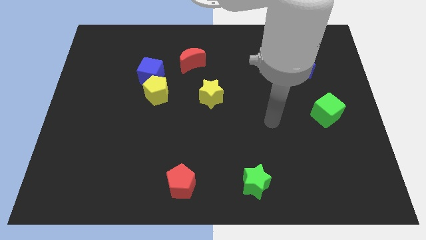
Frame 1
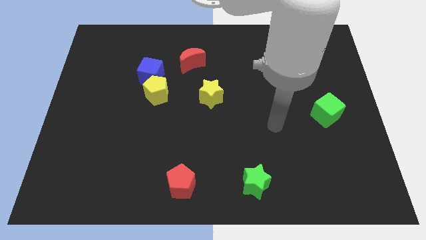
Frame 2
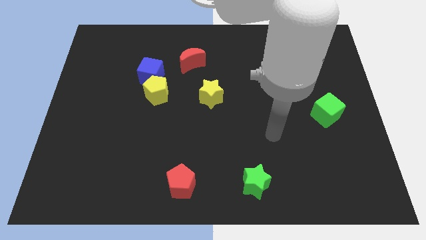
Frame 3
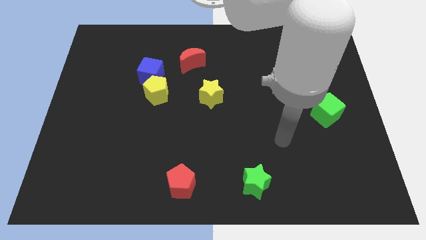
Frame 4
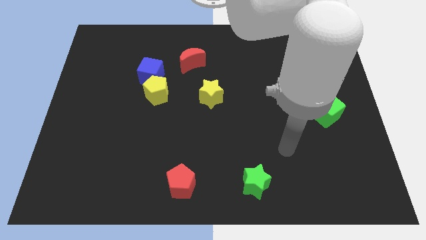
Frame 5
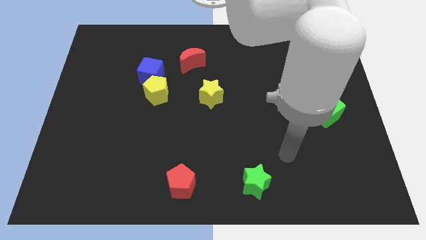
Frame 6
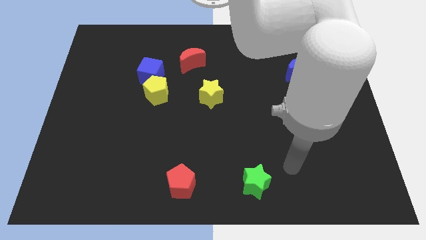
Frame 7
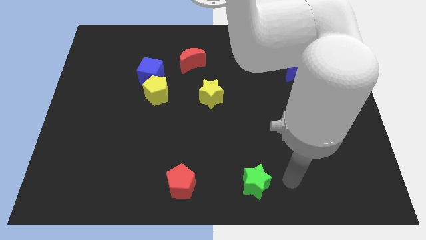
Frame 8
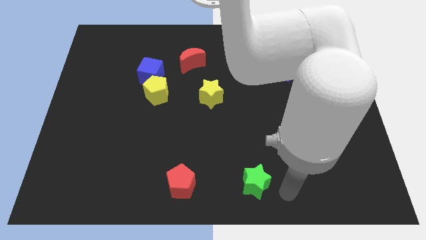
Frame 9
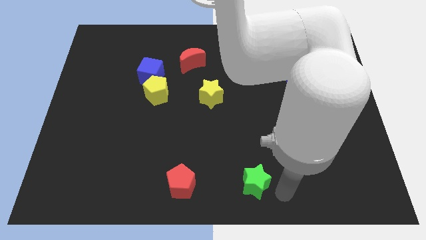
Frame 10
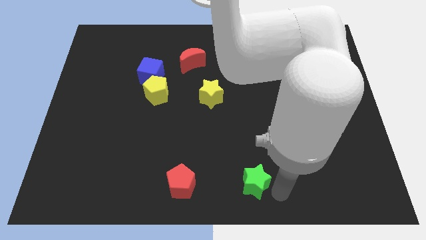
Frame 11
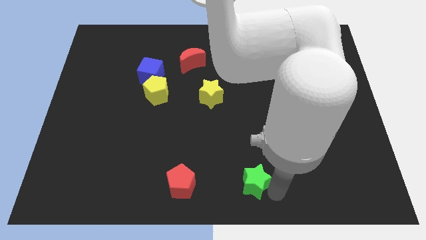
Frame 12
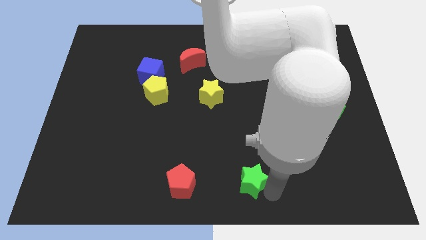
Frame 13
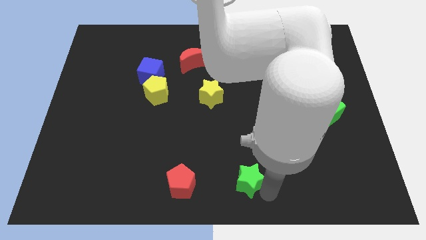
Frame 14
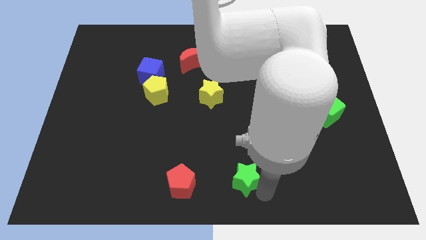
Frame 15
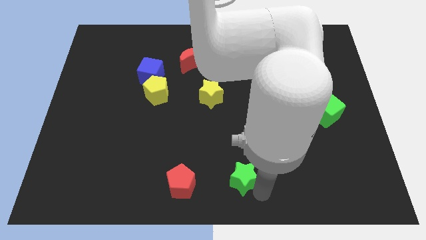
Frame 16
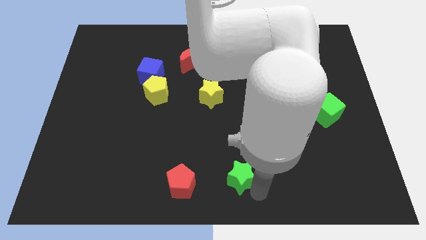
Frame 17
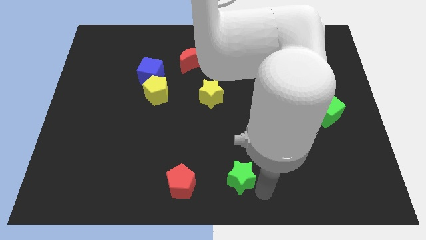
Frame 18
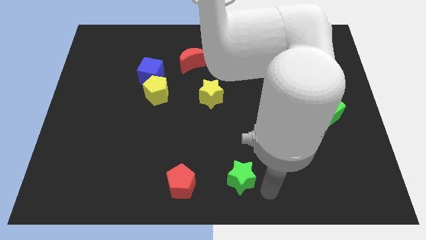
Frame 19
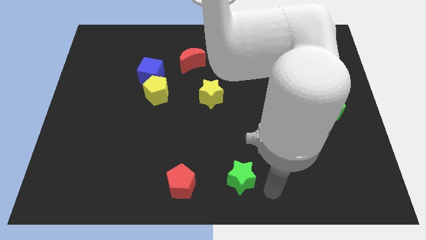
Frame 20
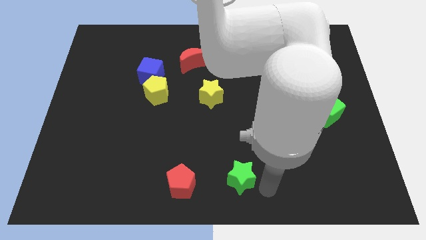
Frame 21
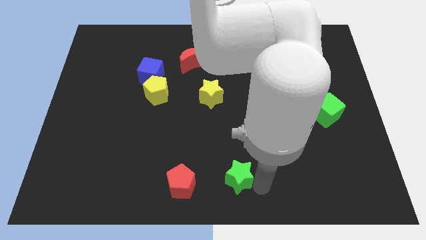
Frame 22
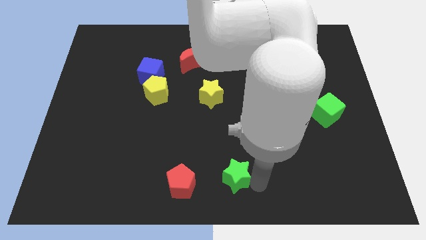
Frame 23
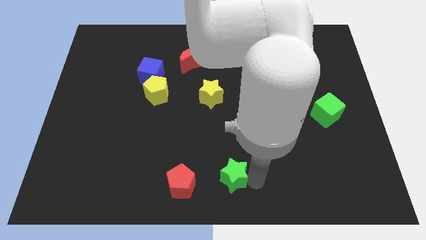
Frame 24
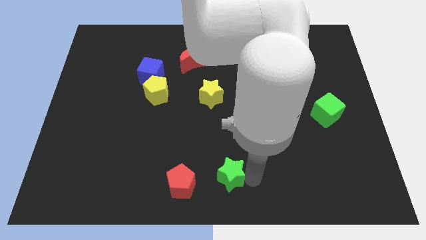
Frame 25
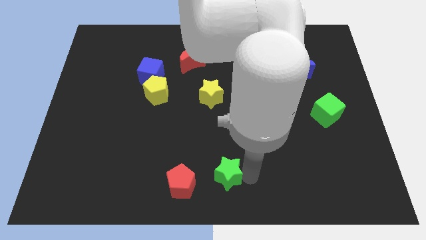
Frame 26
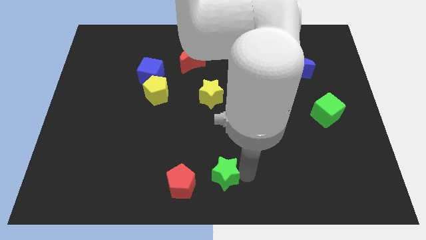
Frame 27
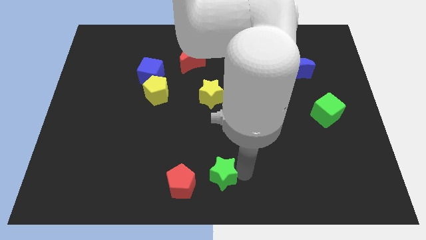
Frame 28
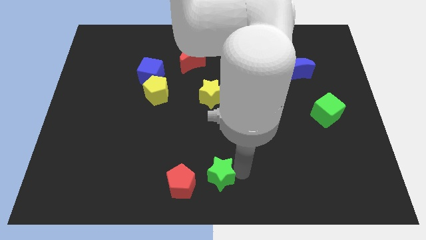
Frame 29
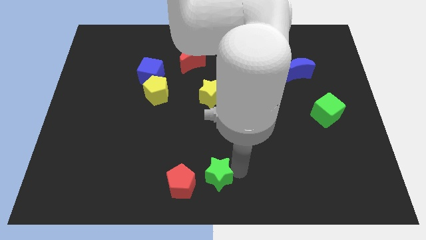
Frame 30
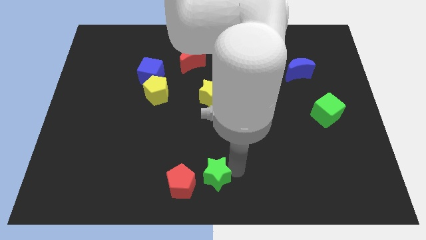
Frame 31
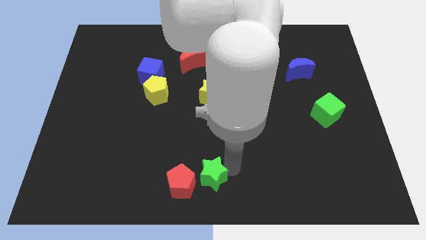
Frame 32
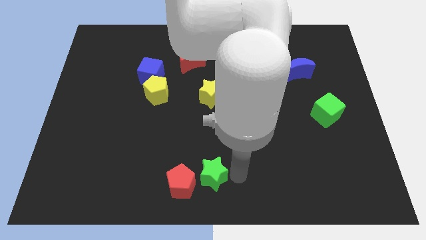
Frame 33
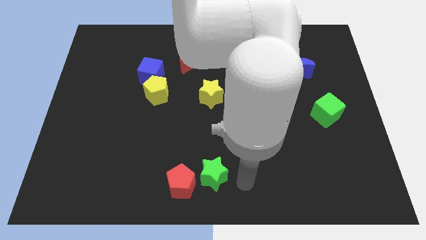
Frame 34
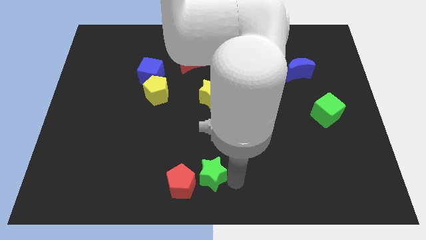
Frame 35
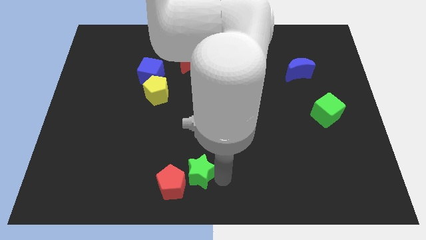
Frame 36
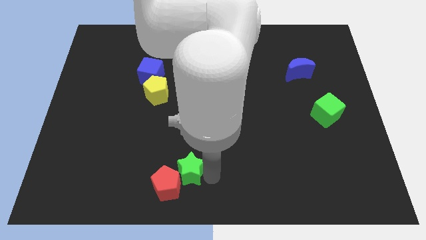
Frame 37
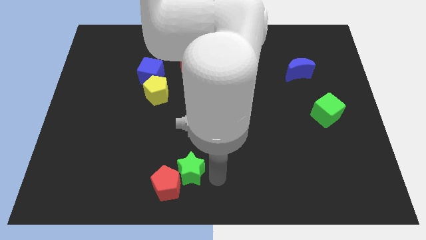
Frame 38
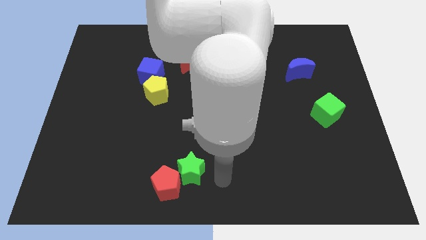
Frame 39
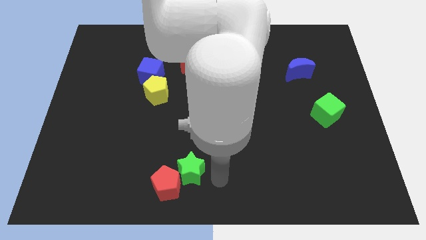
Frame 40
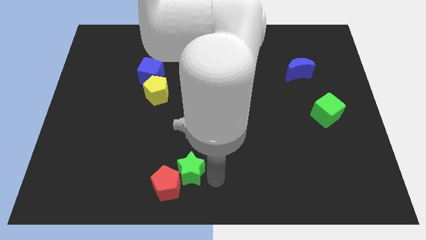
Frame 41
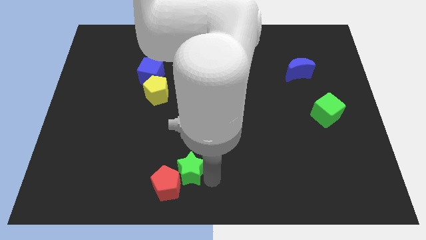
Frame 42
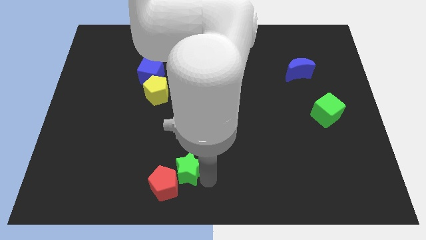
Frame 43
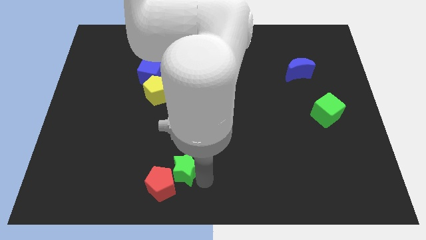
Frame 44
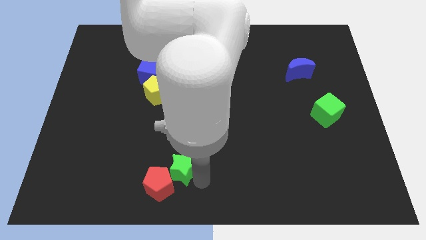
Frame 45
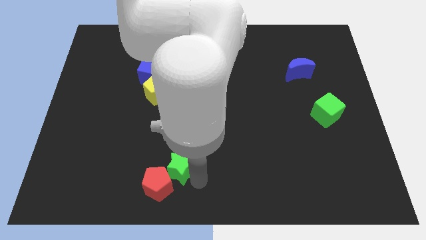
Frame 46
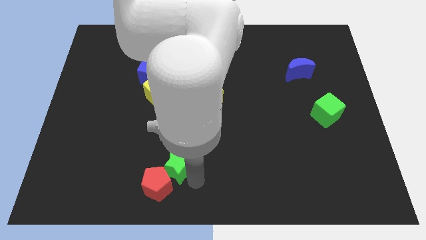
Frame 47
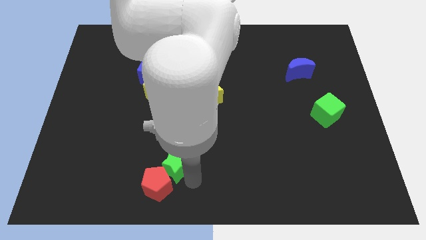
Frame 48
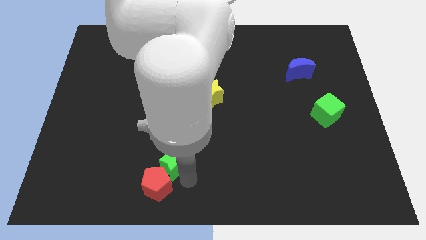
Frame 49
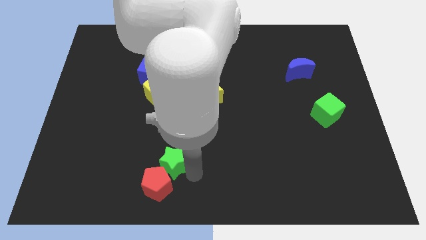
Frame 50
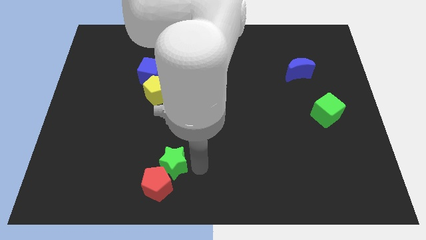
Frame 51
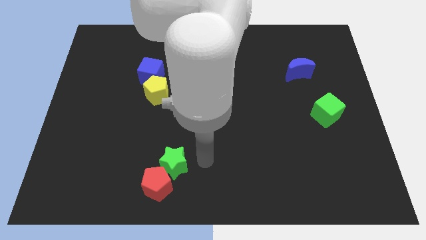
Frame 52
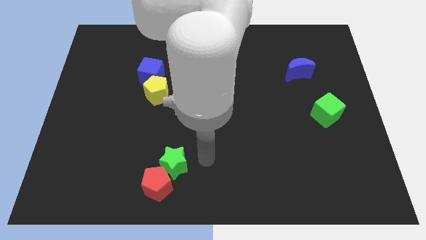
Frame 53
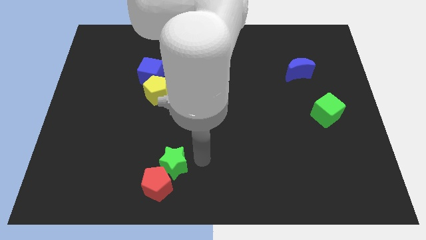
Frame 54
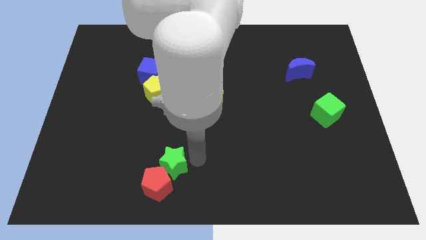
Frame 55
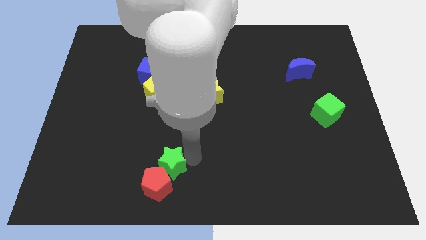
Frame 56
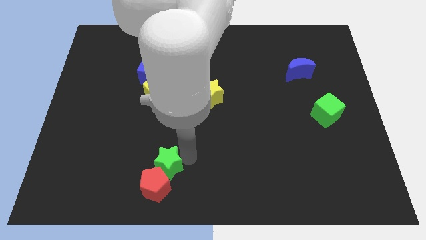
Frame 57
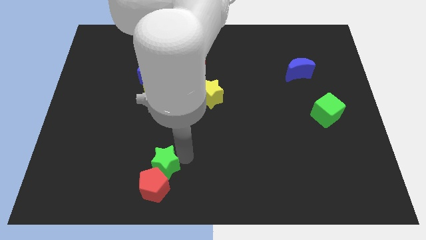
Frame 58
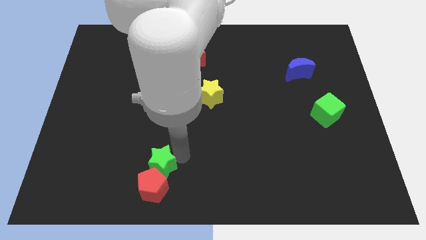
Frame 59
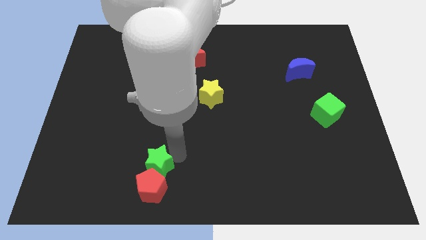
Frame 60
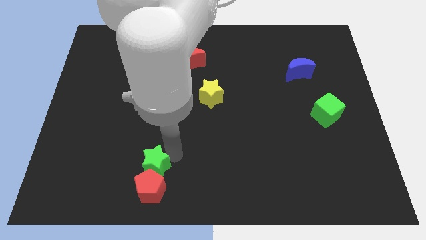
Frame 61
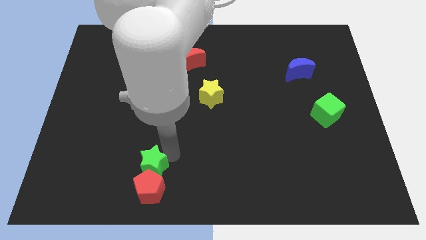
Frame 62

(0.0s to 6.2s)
move the green star to the left

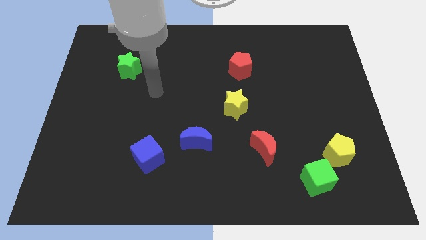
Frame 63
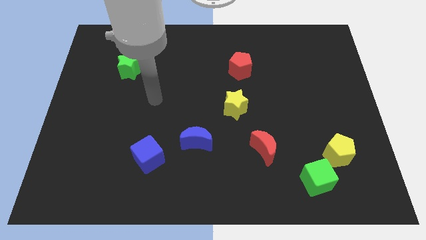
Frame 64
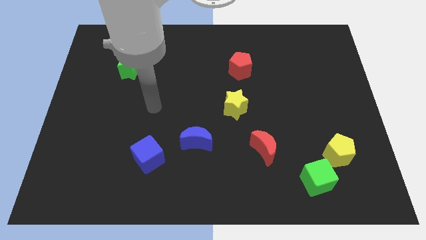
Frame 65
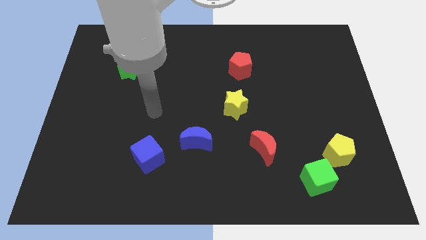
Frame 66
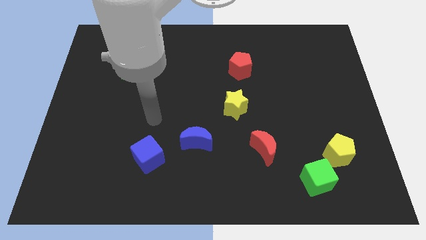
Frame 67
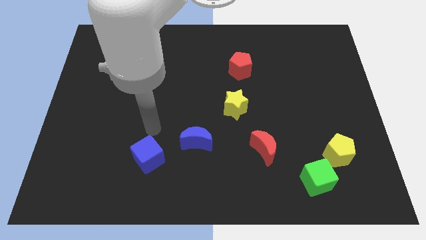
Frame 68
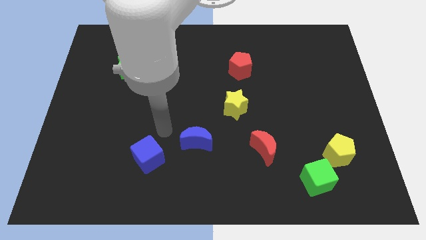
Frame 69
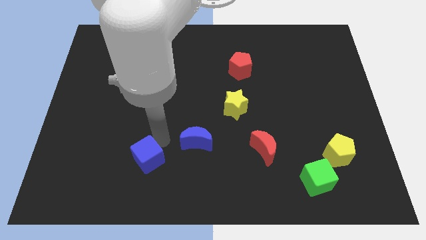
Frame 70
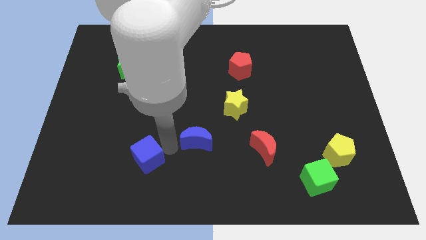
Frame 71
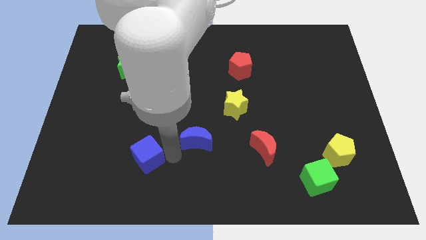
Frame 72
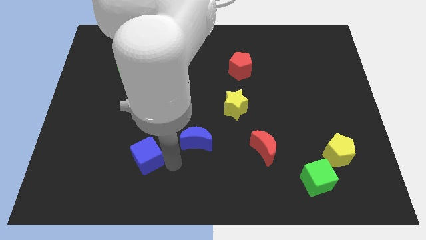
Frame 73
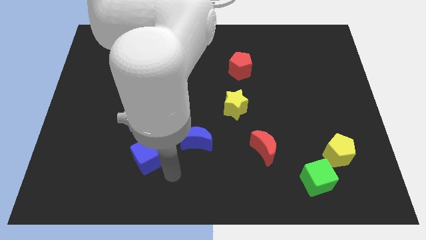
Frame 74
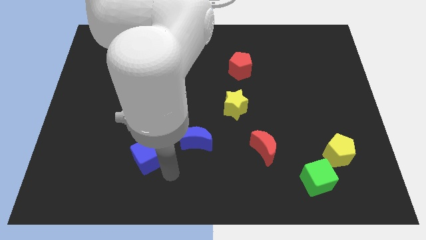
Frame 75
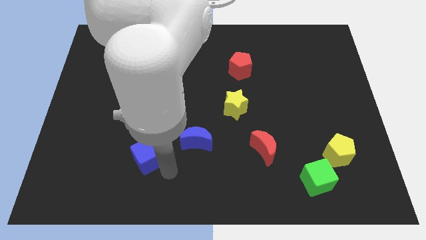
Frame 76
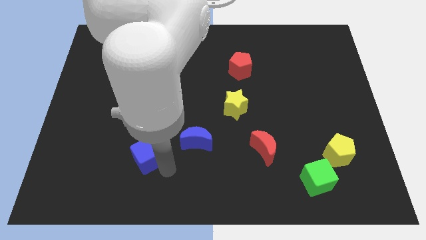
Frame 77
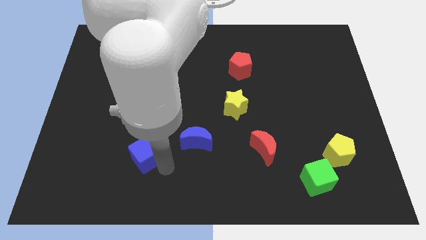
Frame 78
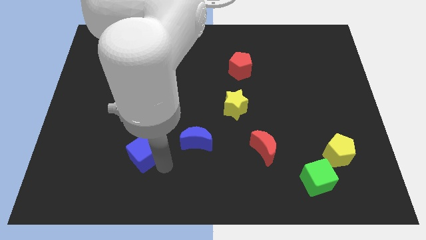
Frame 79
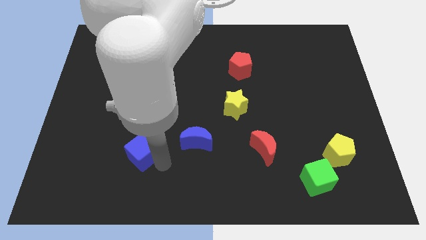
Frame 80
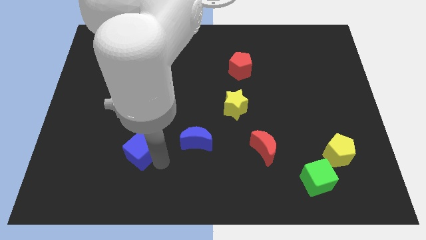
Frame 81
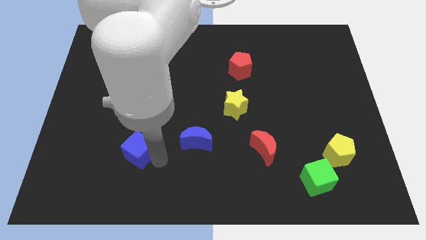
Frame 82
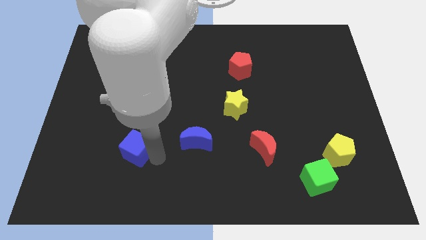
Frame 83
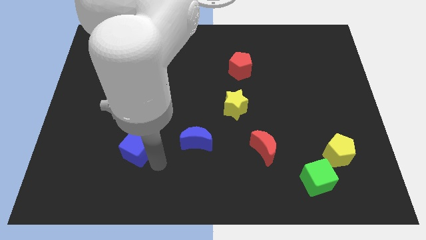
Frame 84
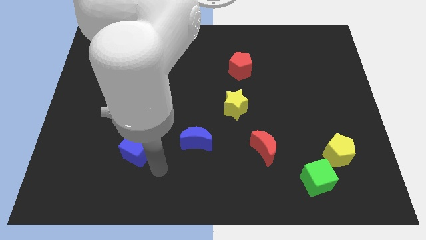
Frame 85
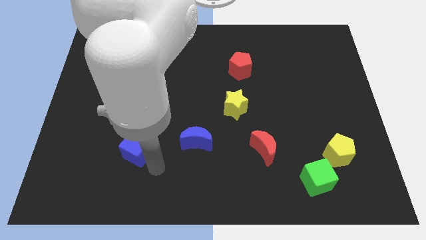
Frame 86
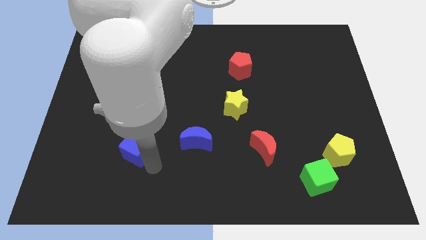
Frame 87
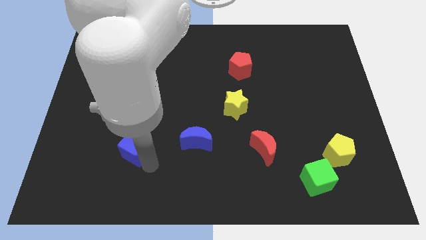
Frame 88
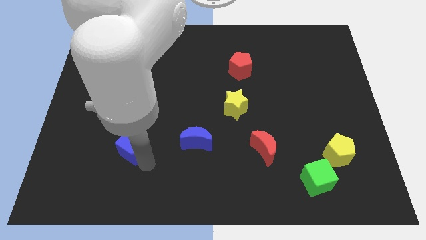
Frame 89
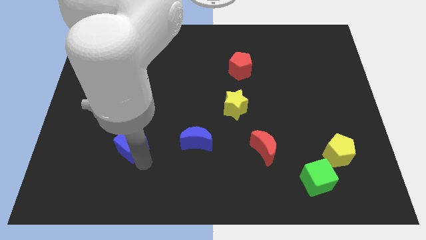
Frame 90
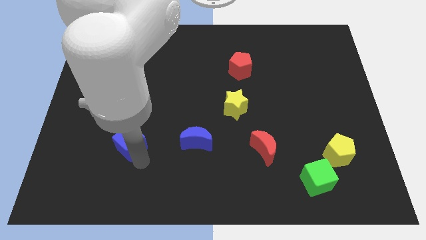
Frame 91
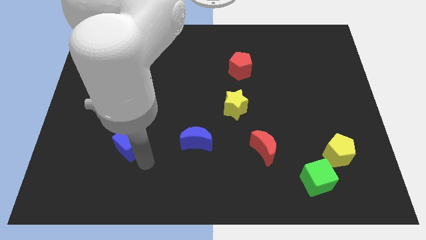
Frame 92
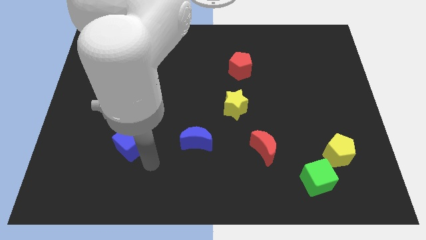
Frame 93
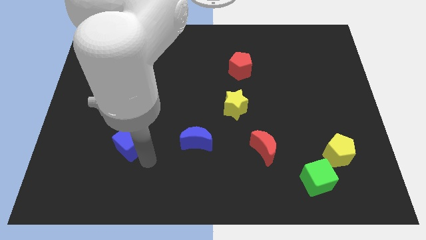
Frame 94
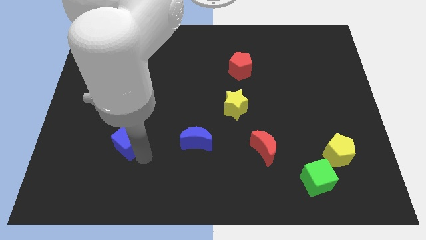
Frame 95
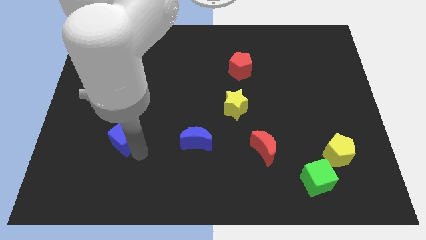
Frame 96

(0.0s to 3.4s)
push the blue cube a little bit up and then to the left
